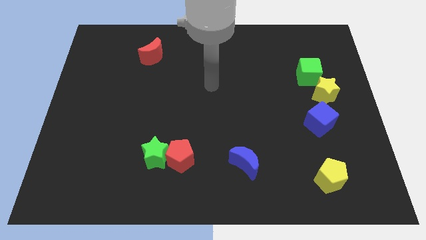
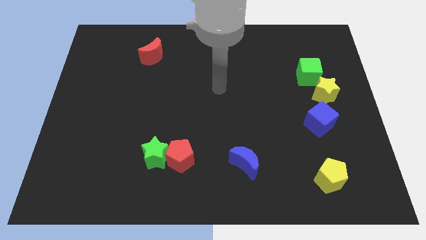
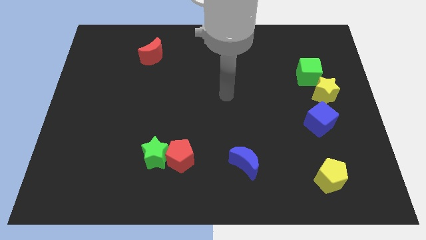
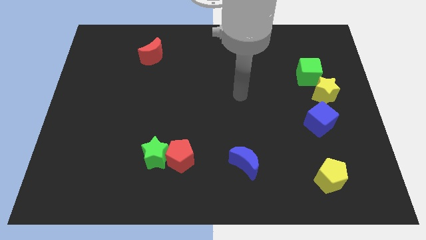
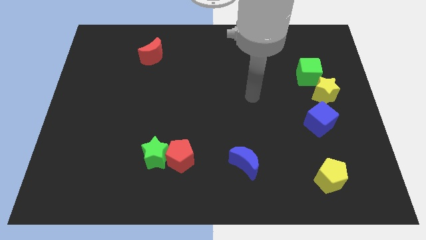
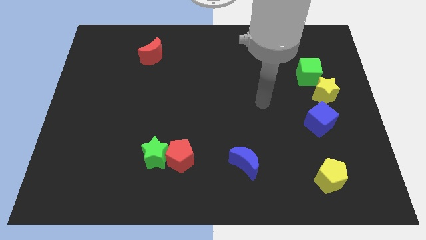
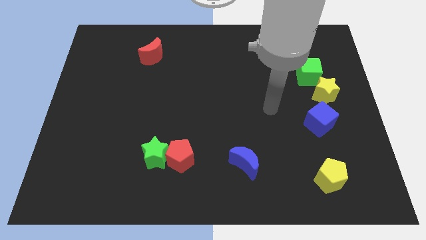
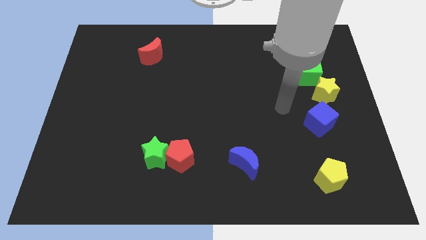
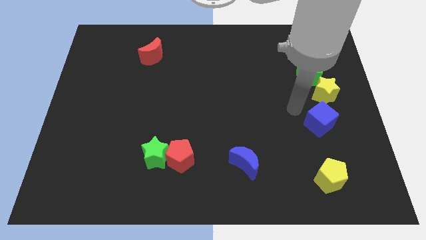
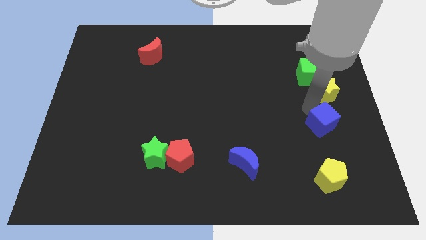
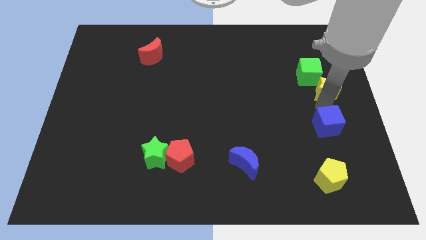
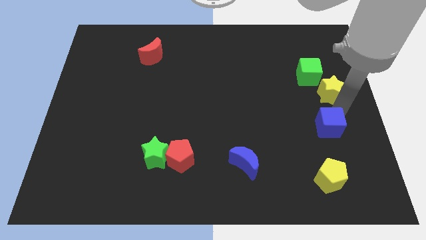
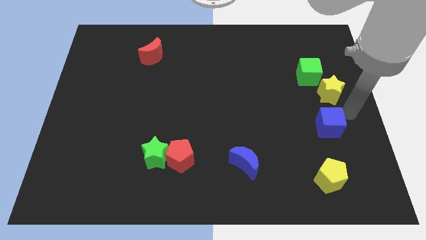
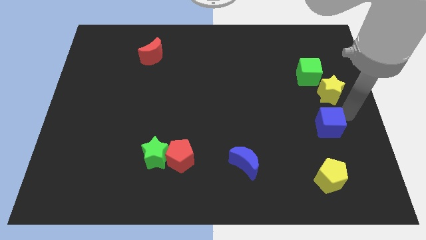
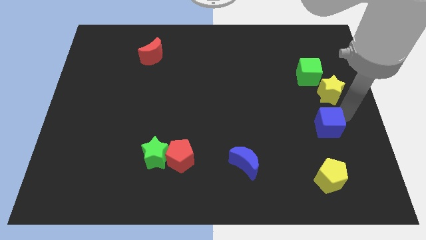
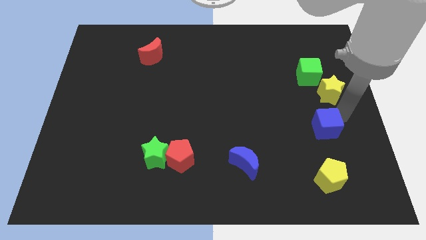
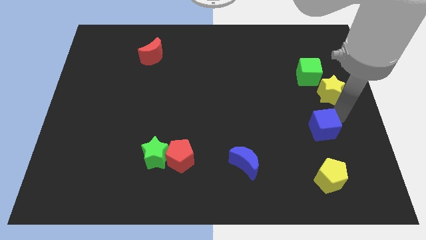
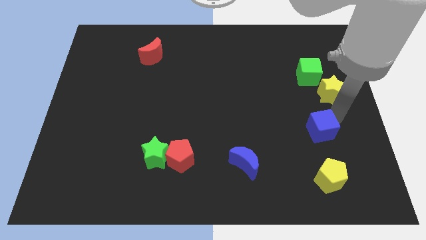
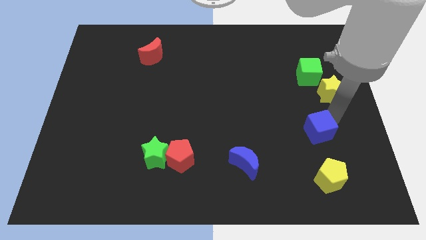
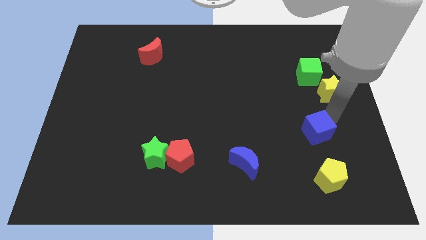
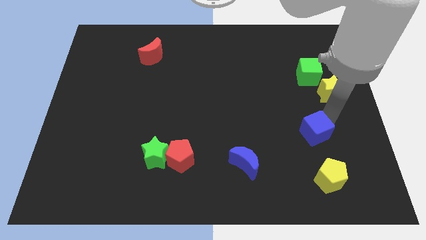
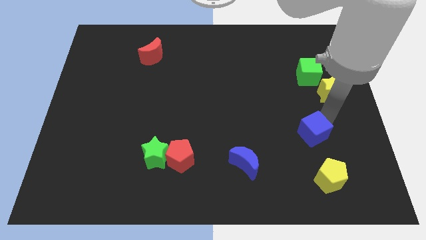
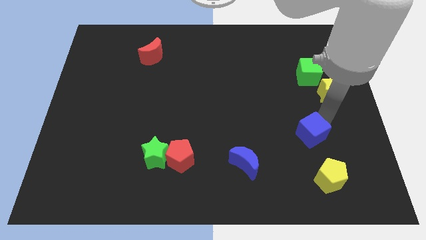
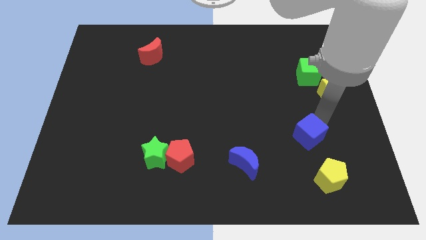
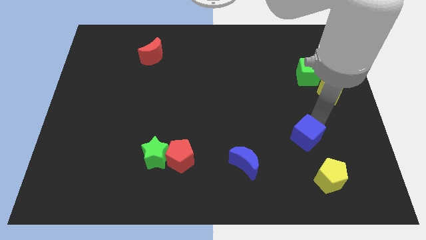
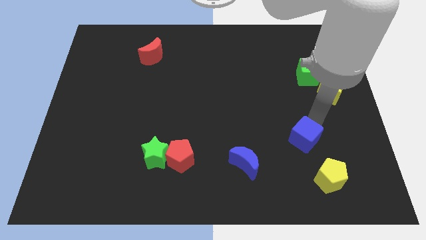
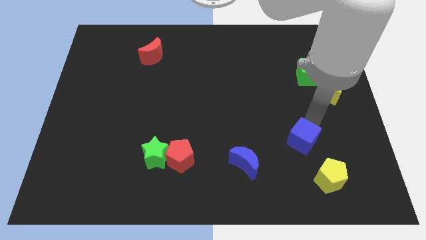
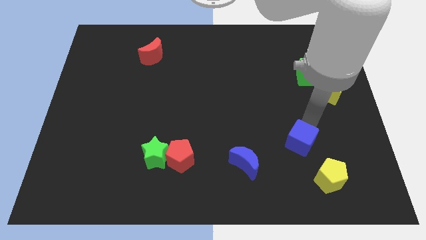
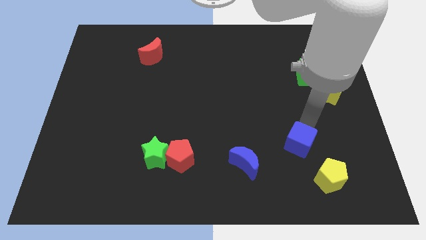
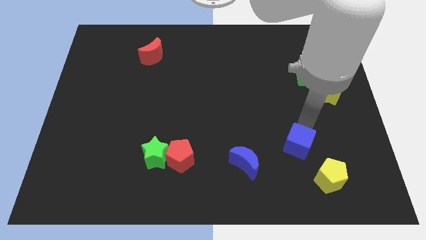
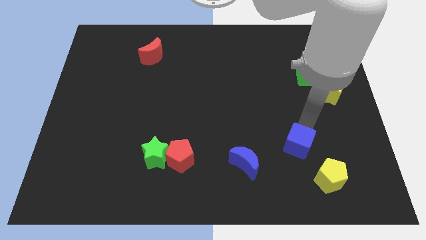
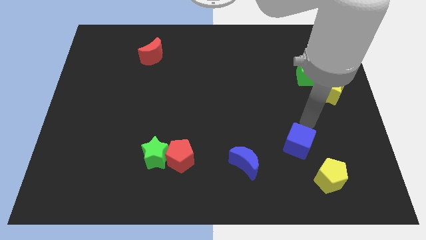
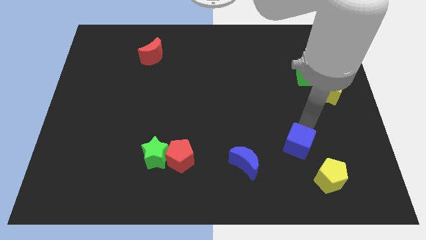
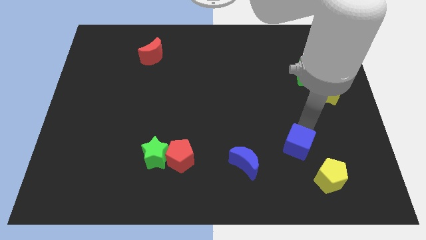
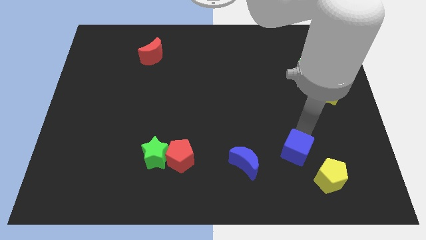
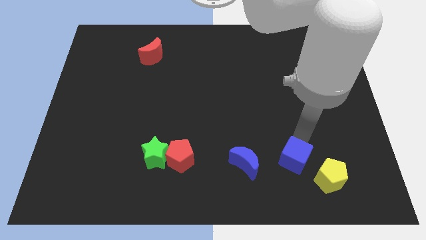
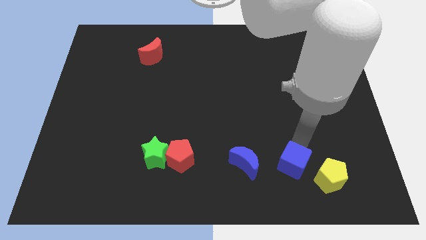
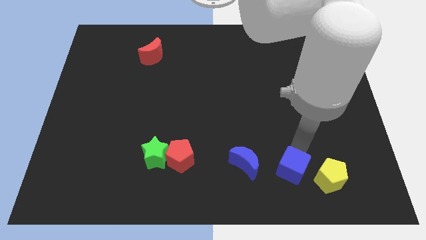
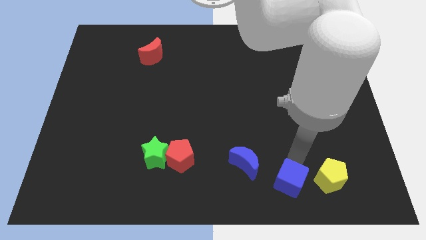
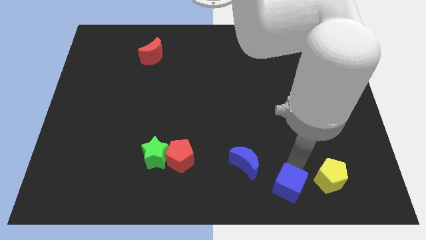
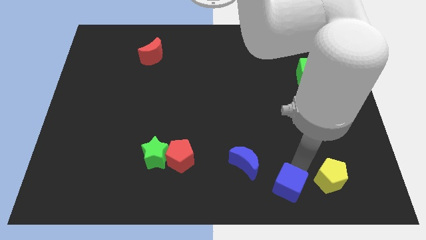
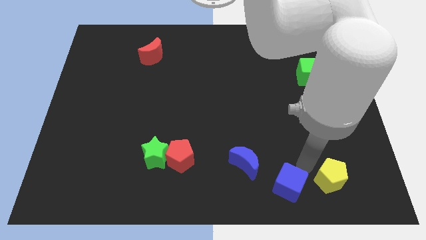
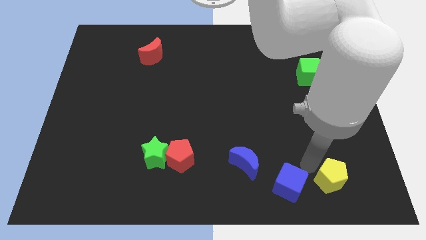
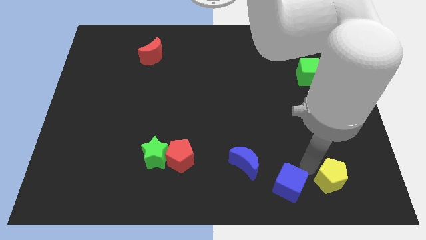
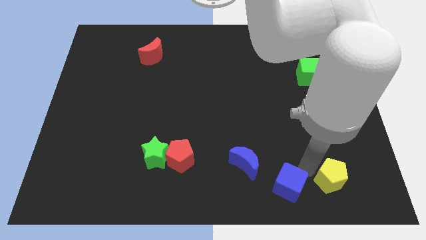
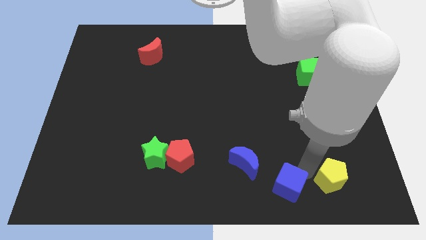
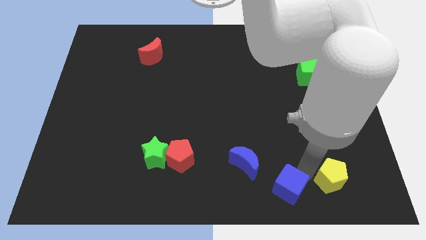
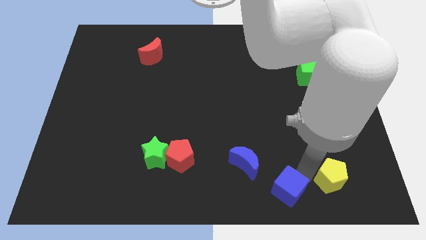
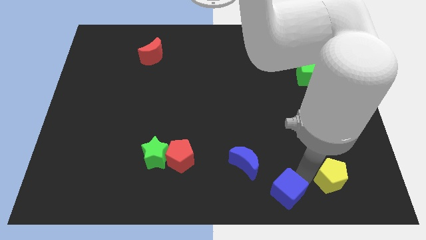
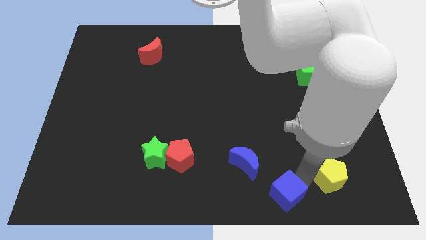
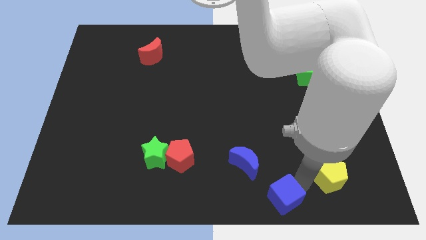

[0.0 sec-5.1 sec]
push the blue cube to the bottom side

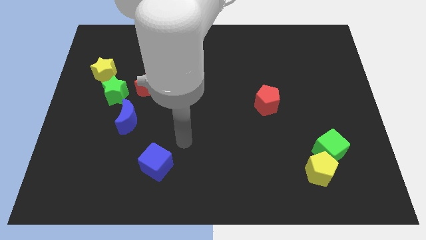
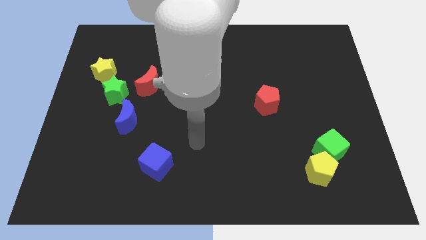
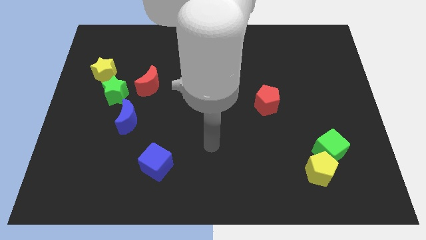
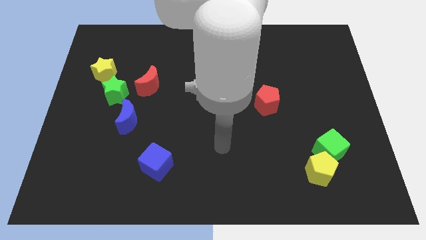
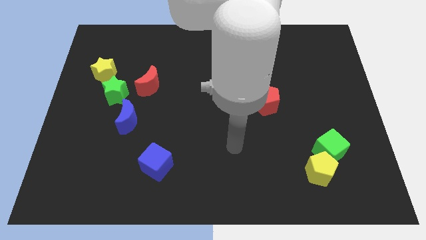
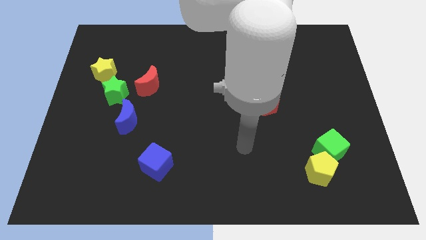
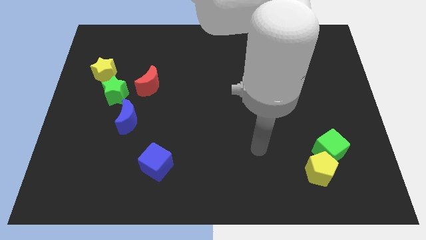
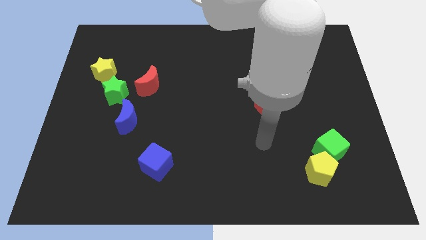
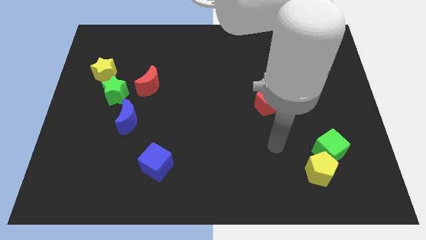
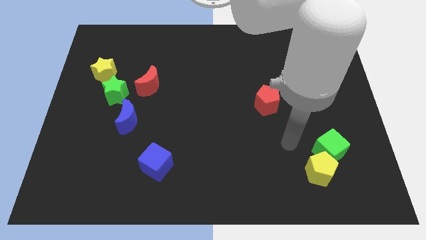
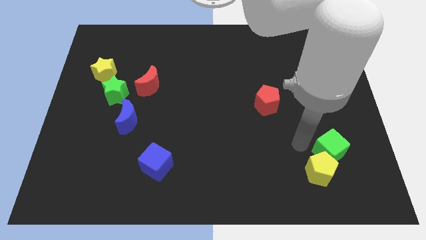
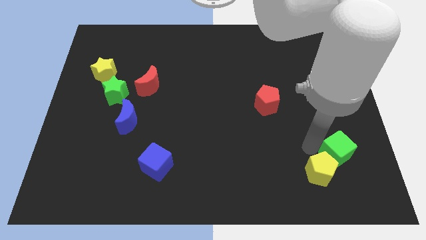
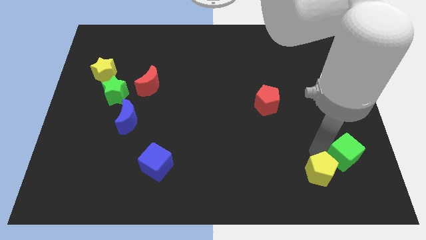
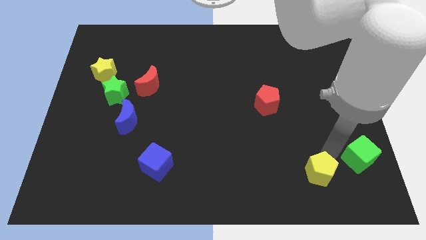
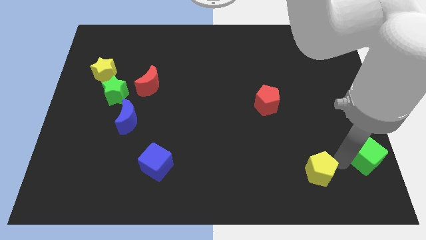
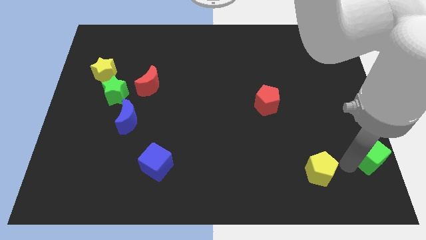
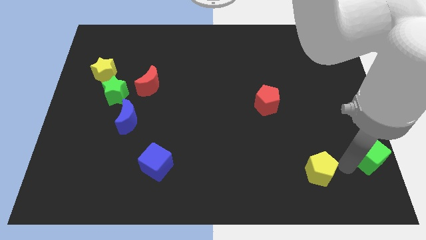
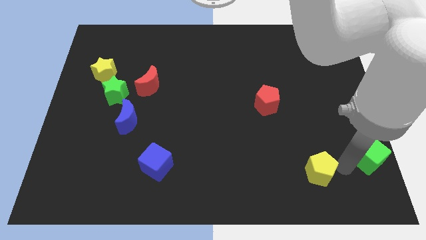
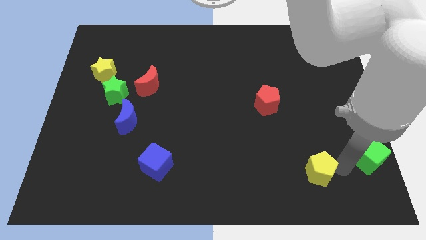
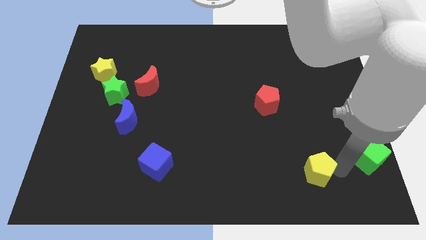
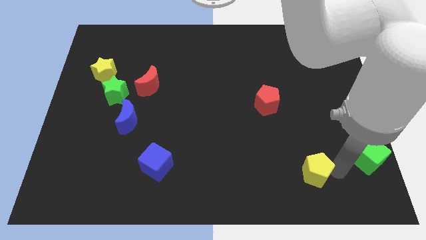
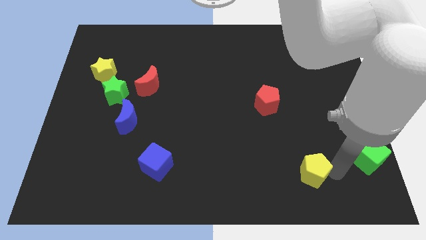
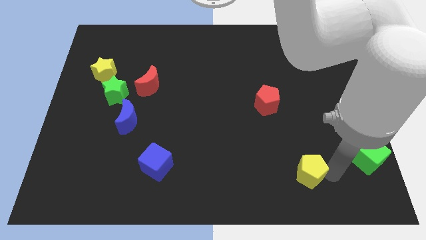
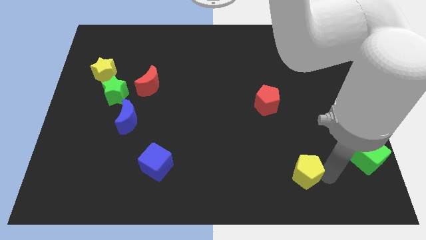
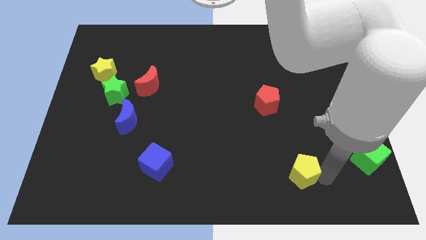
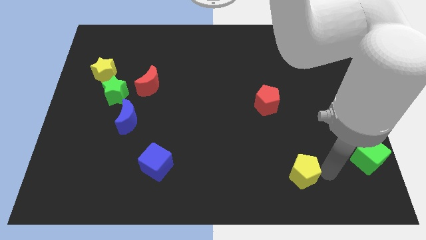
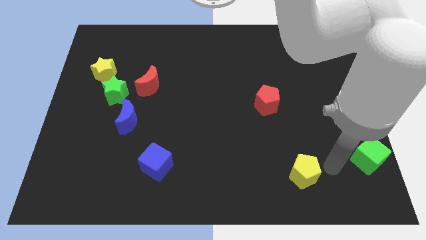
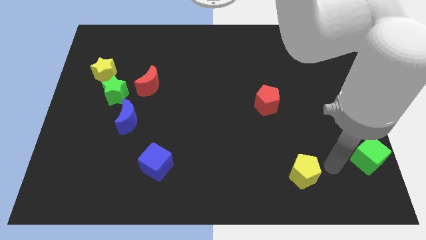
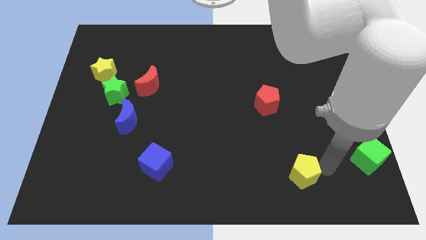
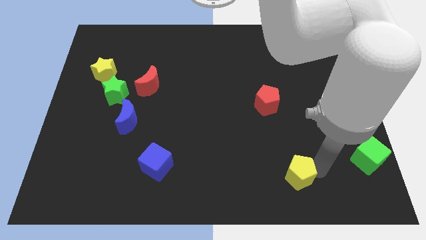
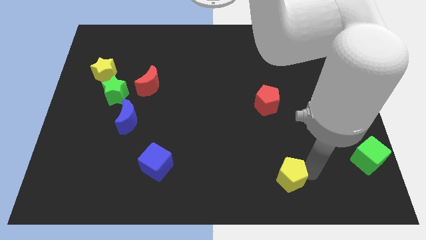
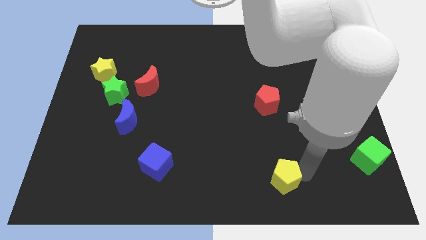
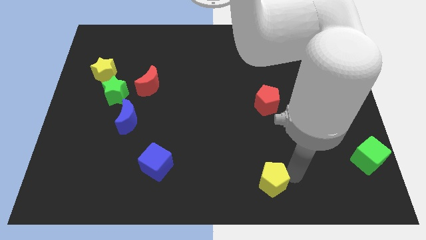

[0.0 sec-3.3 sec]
push the yellow pentagon to the bottom side
